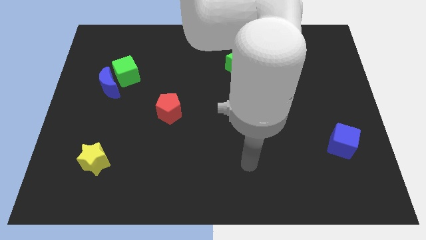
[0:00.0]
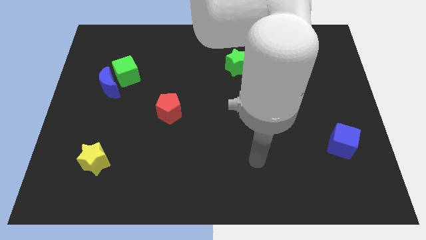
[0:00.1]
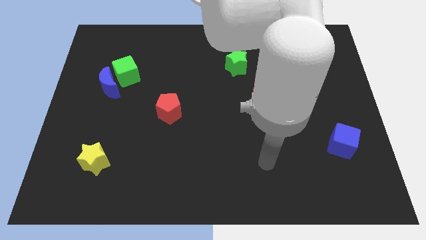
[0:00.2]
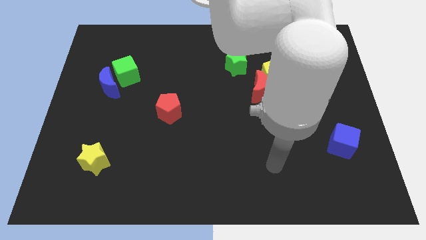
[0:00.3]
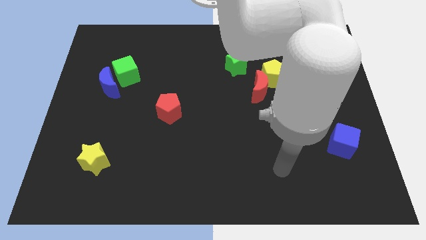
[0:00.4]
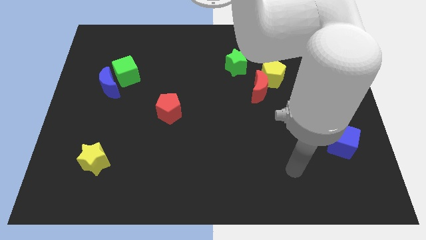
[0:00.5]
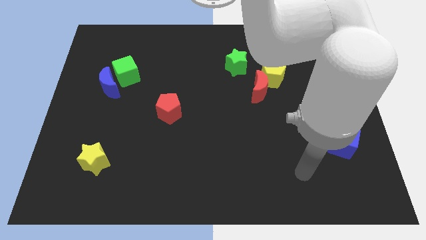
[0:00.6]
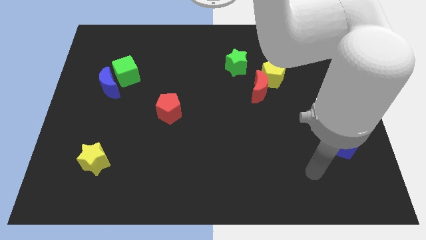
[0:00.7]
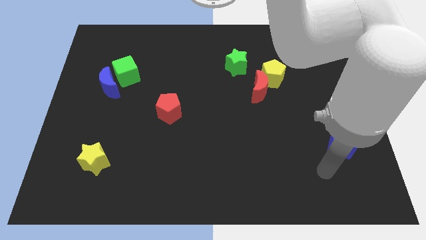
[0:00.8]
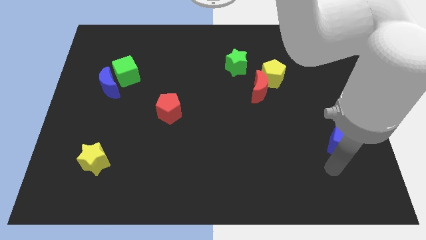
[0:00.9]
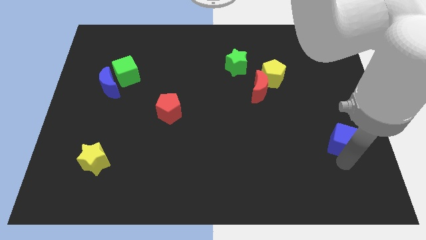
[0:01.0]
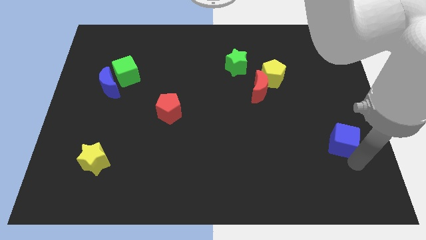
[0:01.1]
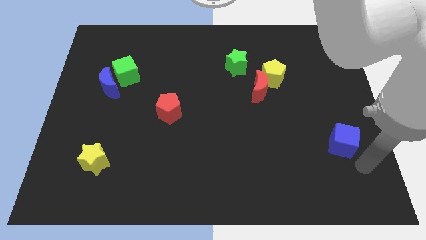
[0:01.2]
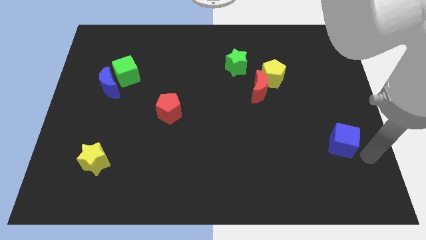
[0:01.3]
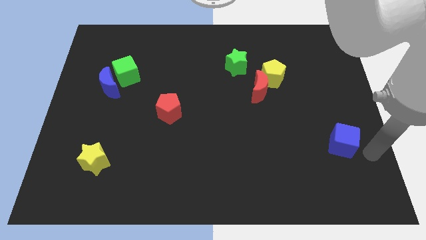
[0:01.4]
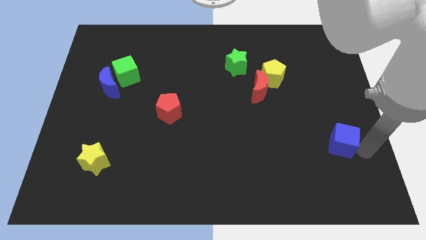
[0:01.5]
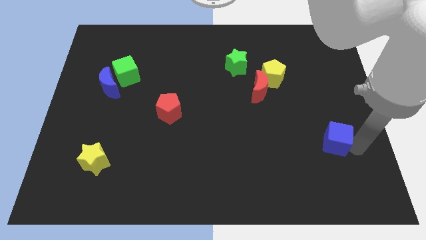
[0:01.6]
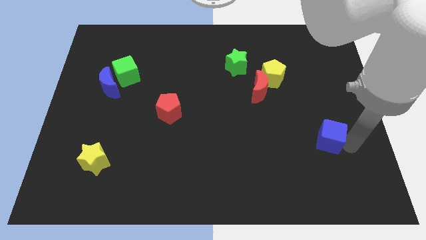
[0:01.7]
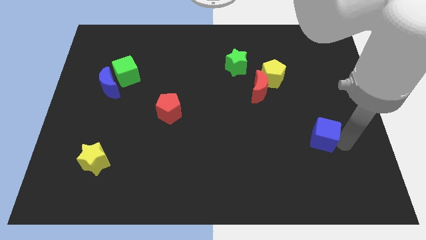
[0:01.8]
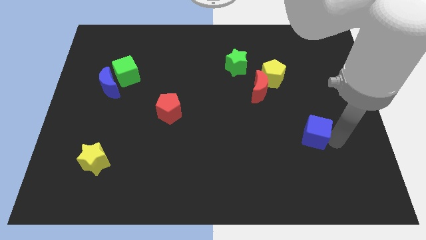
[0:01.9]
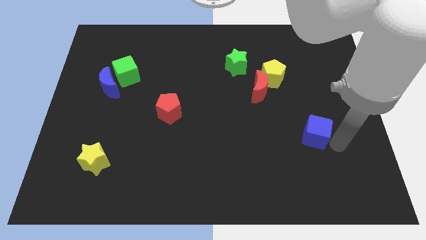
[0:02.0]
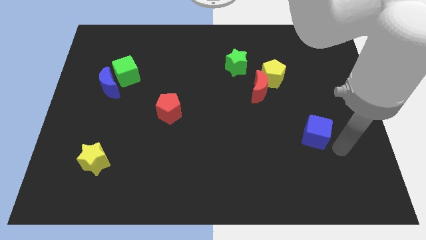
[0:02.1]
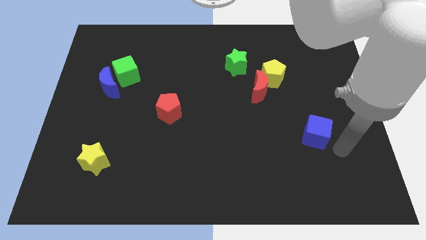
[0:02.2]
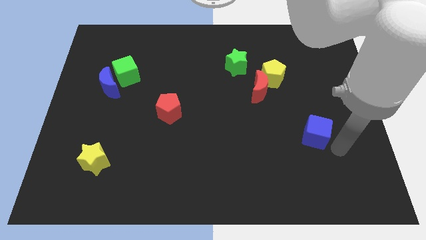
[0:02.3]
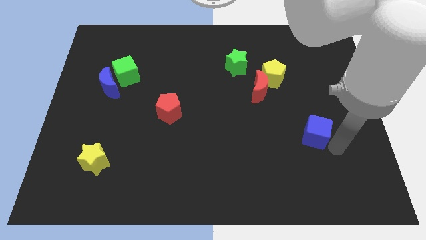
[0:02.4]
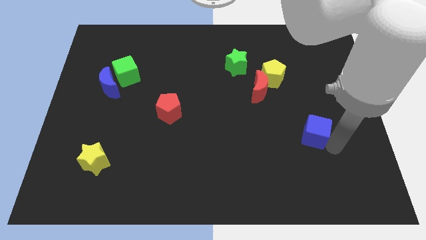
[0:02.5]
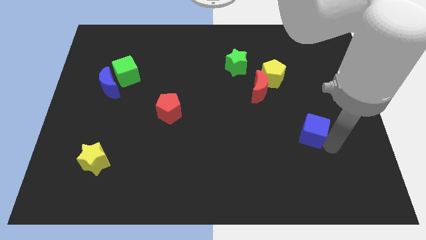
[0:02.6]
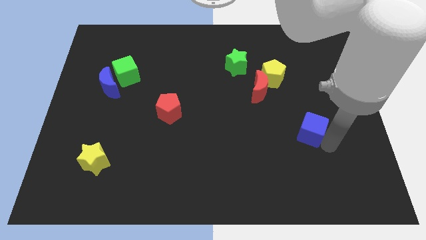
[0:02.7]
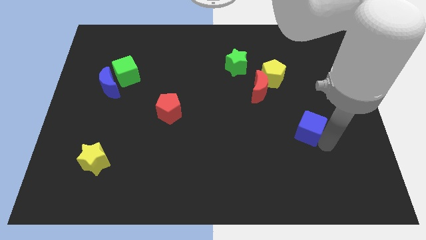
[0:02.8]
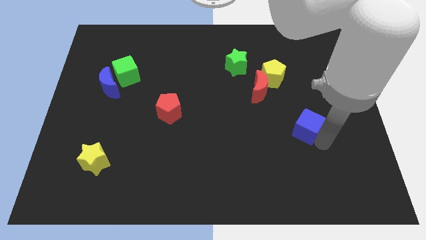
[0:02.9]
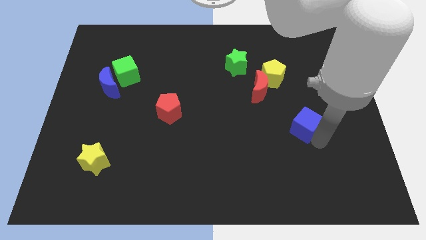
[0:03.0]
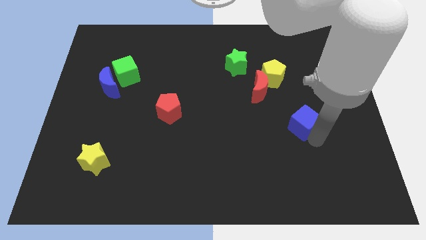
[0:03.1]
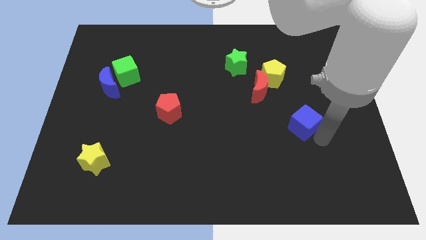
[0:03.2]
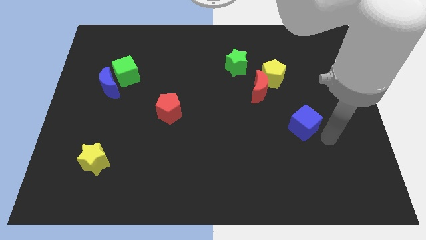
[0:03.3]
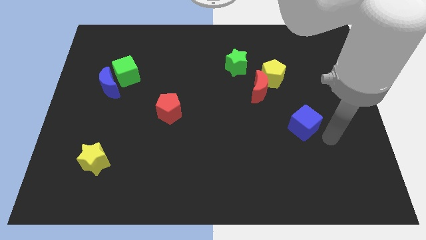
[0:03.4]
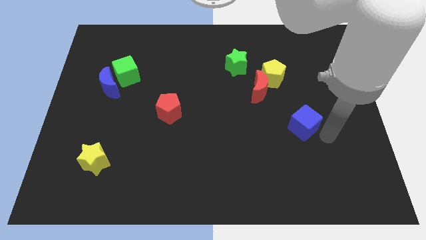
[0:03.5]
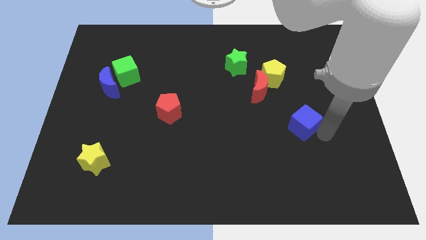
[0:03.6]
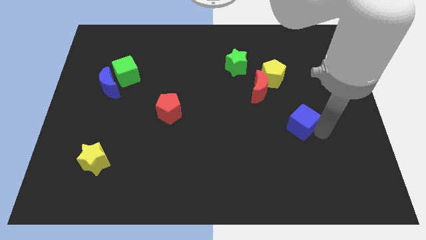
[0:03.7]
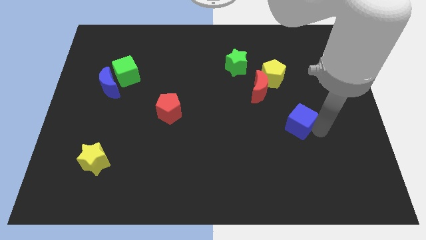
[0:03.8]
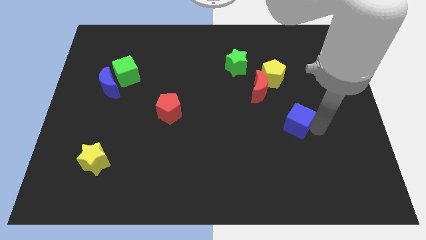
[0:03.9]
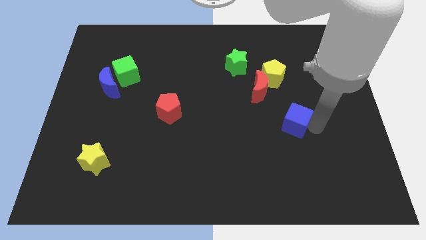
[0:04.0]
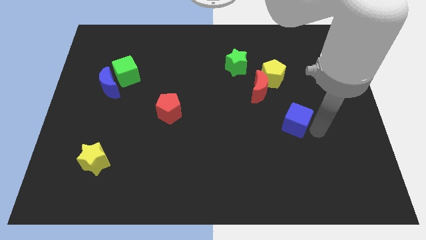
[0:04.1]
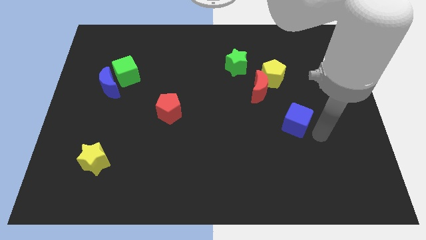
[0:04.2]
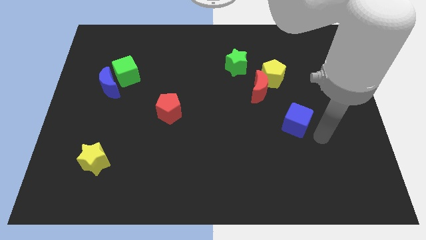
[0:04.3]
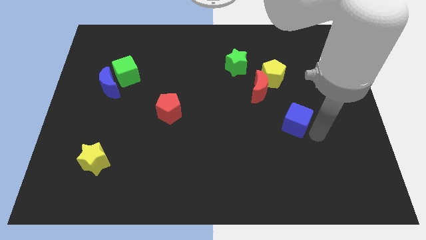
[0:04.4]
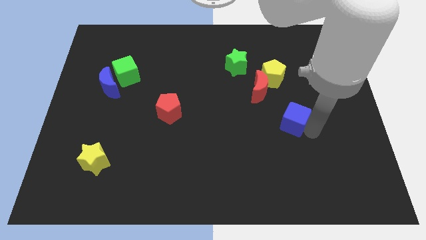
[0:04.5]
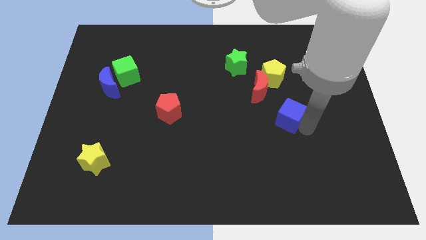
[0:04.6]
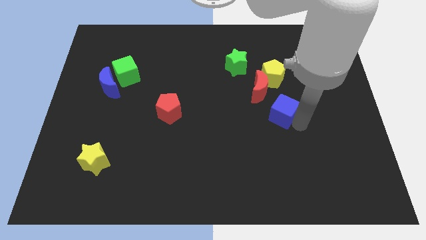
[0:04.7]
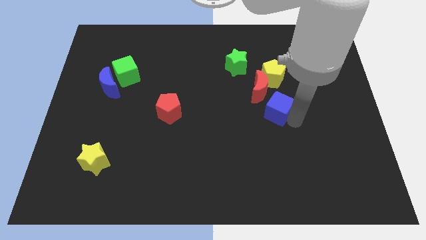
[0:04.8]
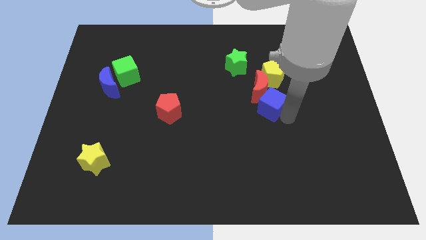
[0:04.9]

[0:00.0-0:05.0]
put the blue cube next to the red moon

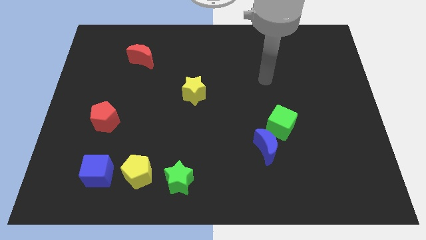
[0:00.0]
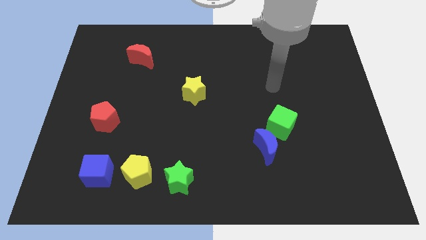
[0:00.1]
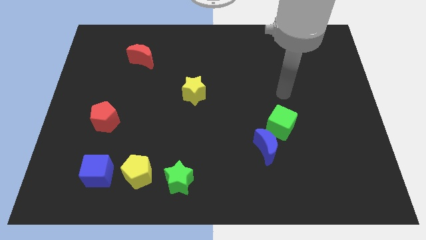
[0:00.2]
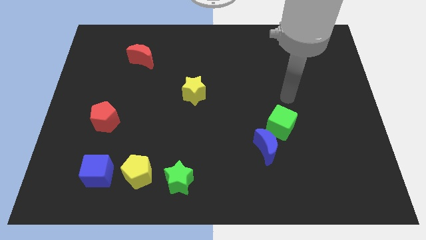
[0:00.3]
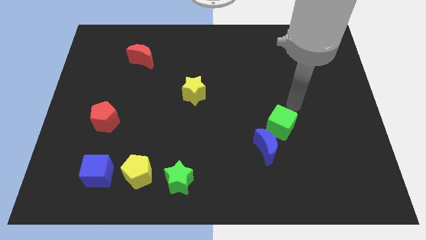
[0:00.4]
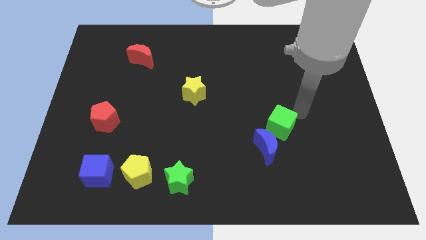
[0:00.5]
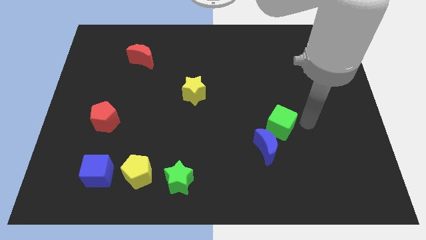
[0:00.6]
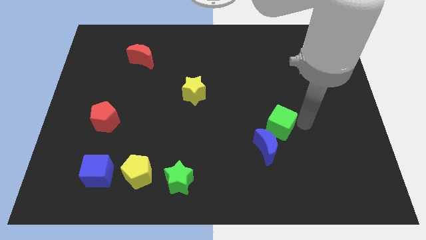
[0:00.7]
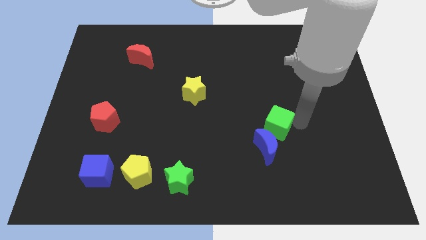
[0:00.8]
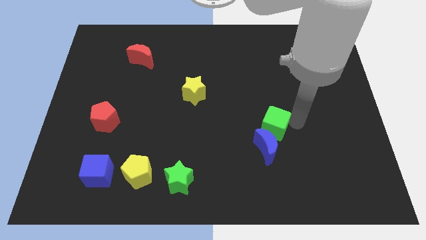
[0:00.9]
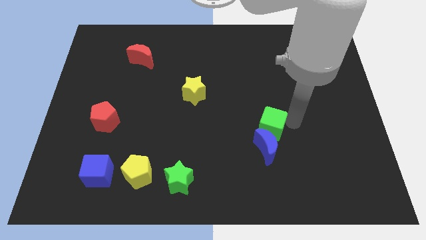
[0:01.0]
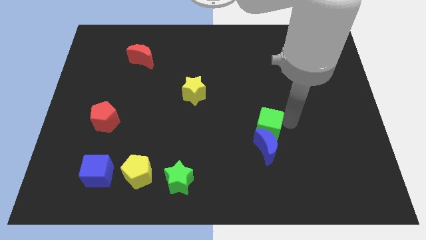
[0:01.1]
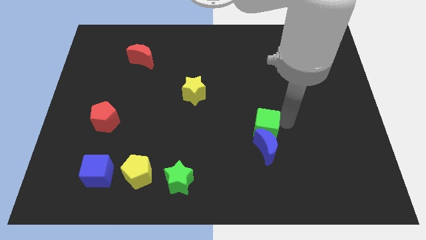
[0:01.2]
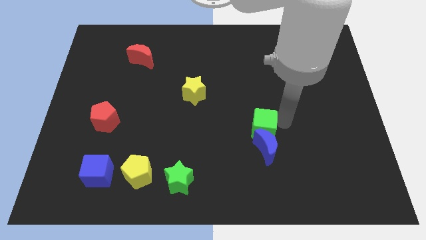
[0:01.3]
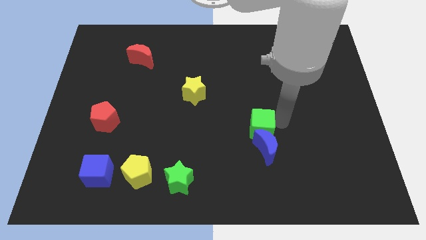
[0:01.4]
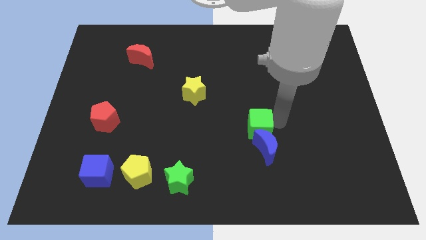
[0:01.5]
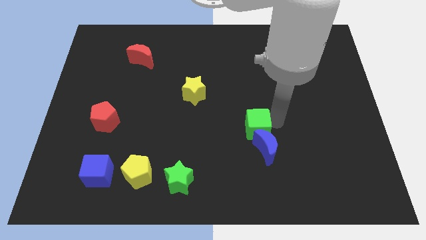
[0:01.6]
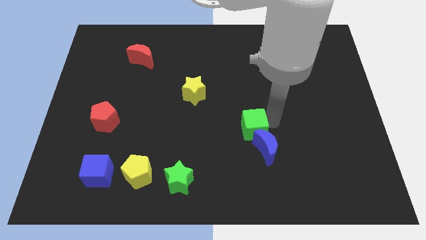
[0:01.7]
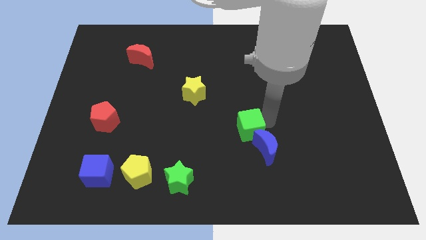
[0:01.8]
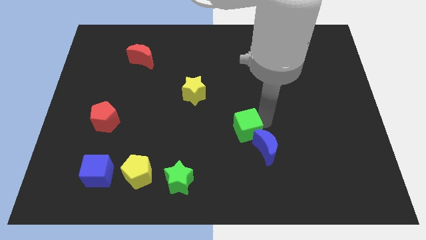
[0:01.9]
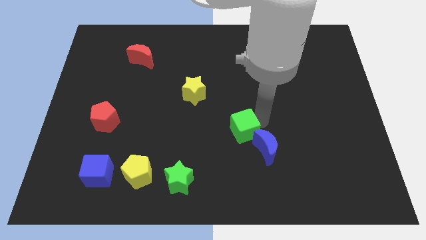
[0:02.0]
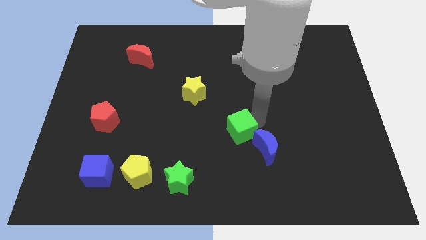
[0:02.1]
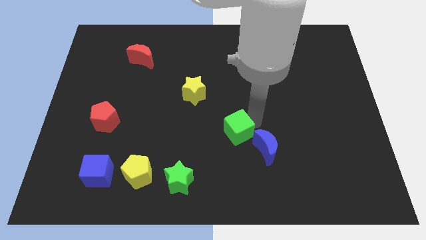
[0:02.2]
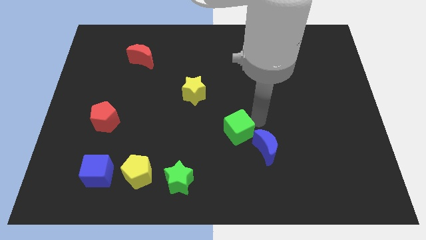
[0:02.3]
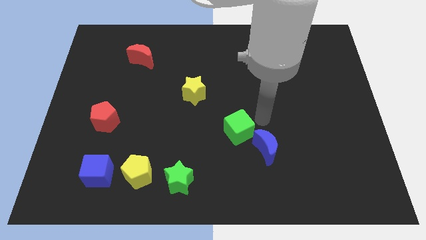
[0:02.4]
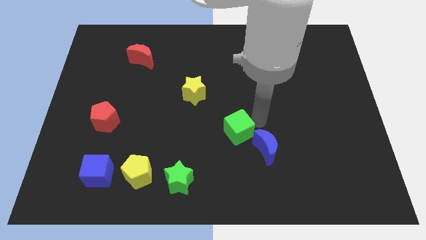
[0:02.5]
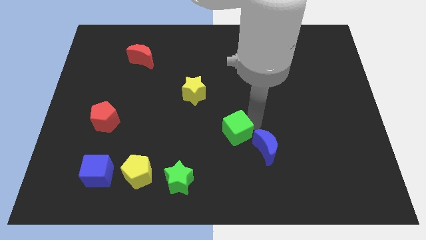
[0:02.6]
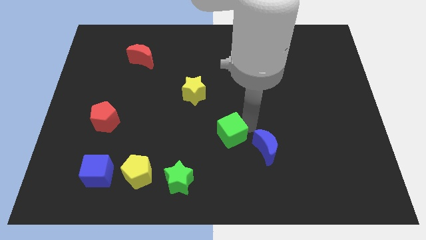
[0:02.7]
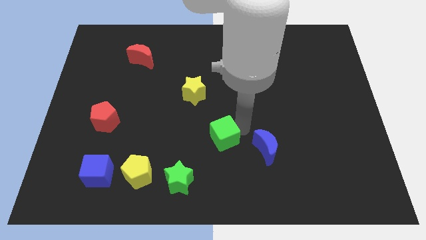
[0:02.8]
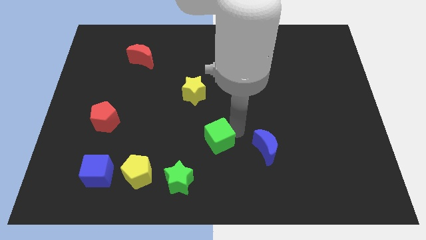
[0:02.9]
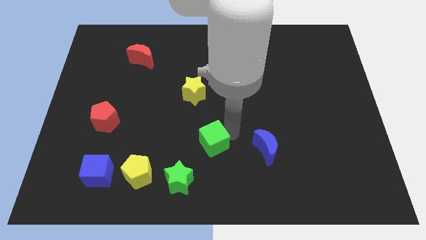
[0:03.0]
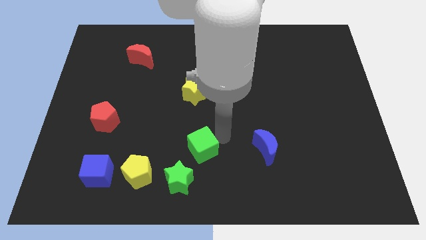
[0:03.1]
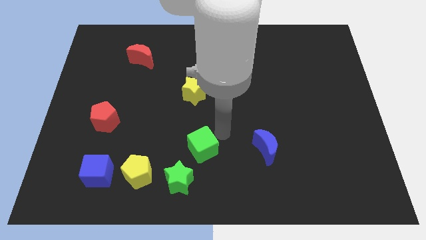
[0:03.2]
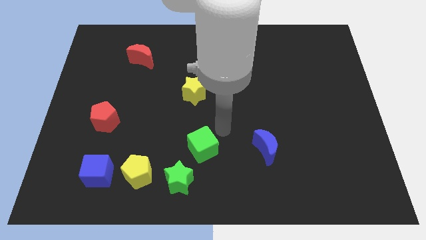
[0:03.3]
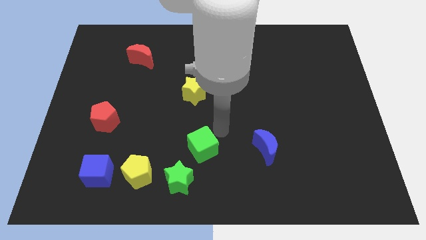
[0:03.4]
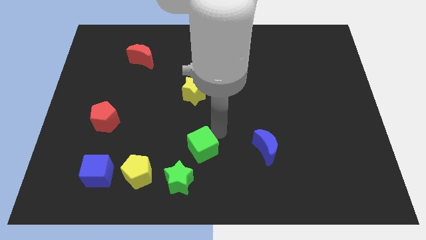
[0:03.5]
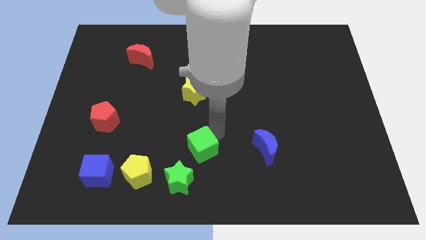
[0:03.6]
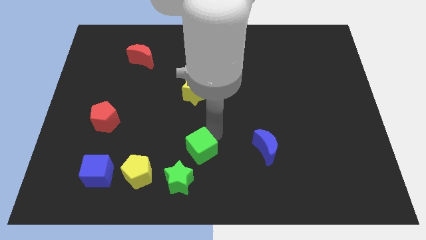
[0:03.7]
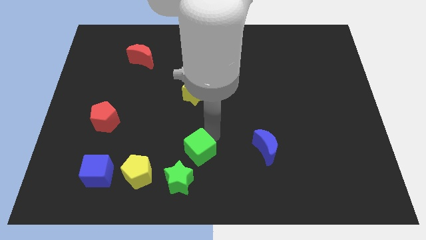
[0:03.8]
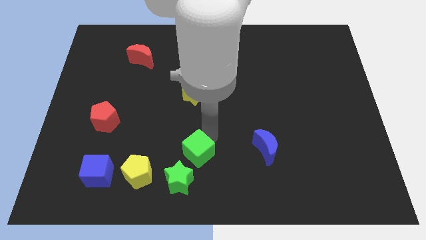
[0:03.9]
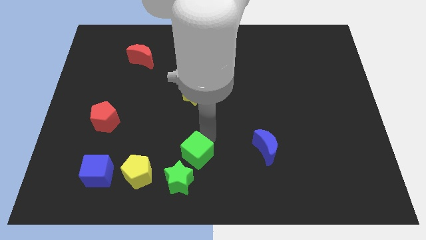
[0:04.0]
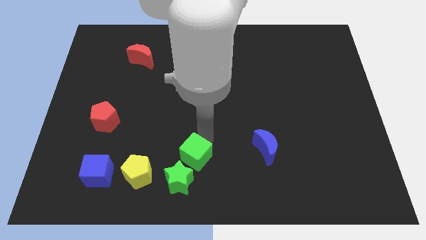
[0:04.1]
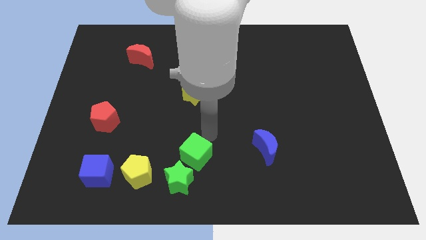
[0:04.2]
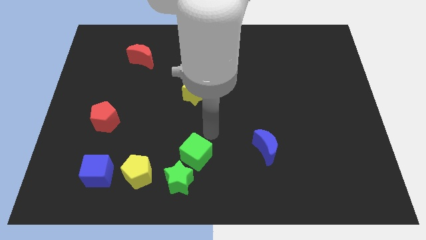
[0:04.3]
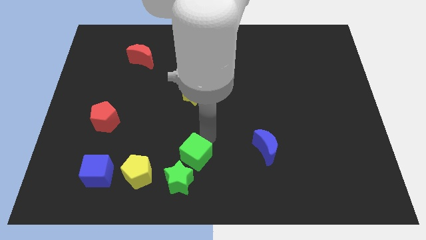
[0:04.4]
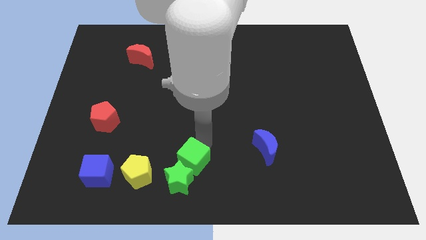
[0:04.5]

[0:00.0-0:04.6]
slide the green cube to the green star
